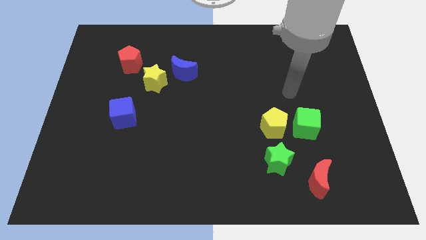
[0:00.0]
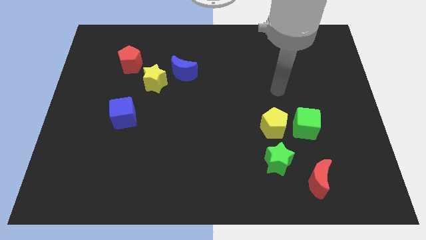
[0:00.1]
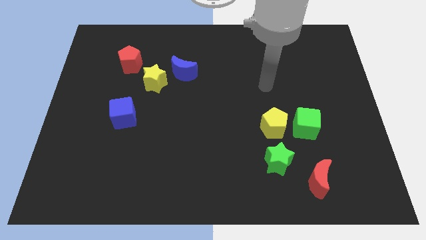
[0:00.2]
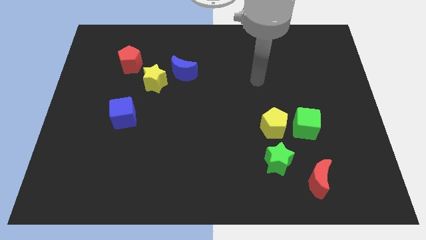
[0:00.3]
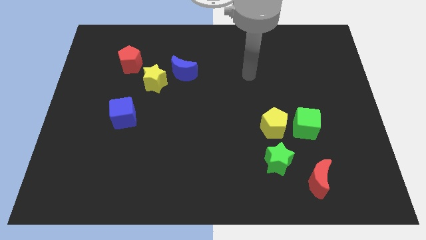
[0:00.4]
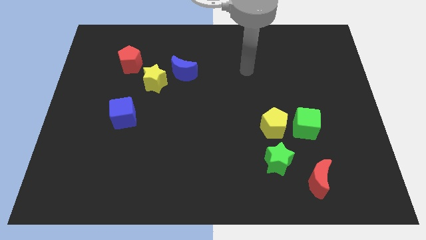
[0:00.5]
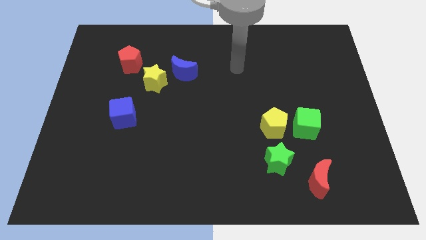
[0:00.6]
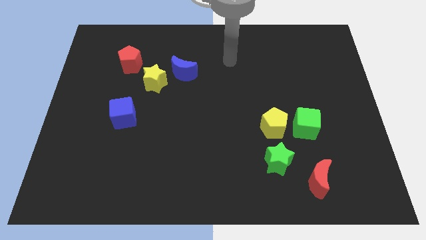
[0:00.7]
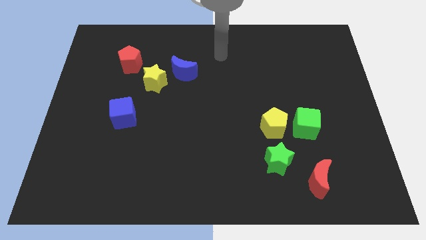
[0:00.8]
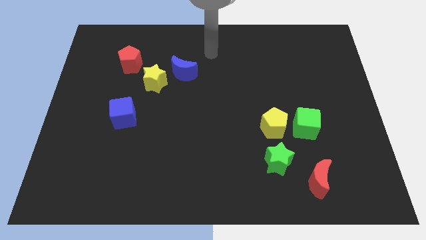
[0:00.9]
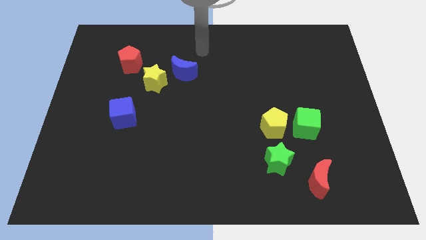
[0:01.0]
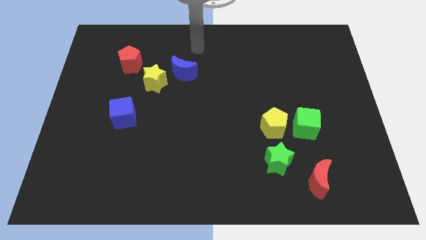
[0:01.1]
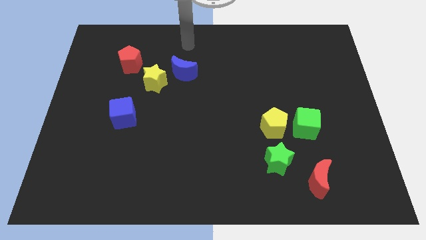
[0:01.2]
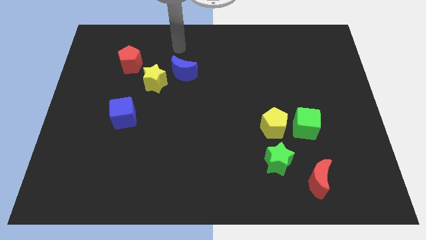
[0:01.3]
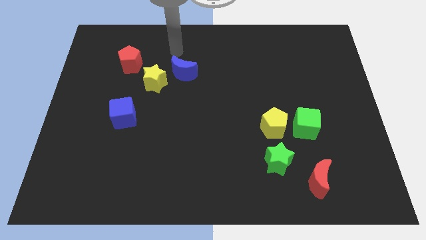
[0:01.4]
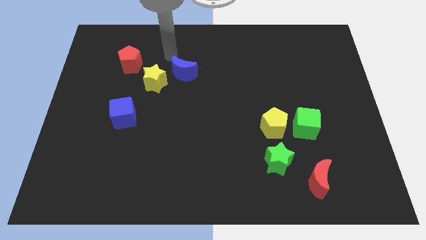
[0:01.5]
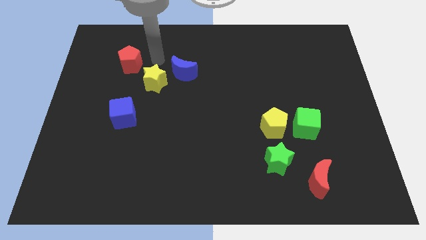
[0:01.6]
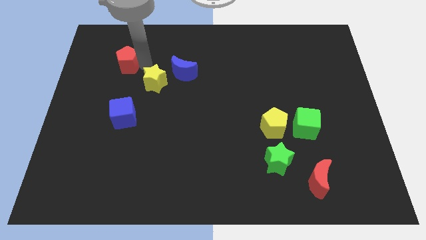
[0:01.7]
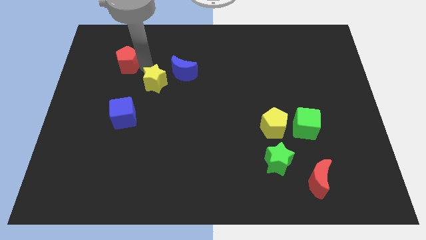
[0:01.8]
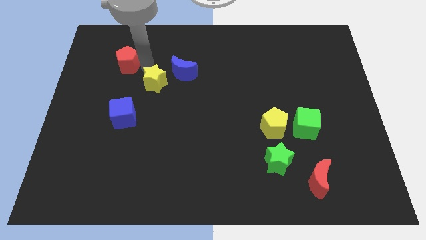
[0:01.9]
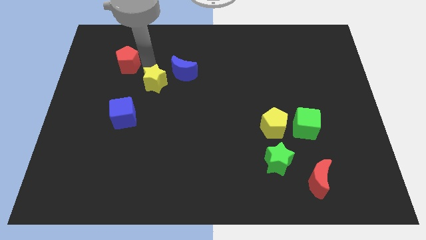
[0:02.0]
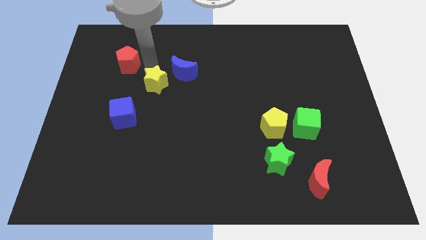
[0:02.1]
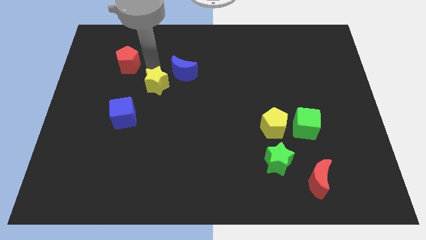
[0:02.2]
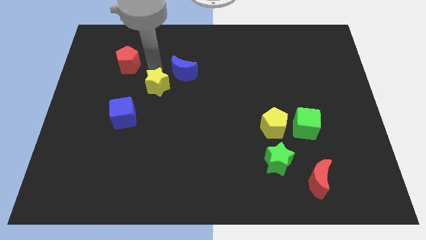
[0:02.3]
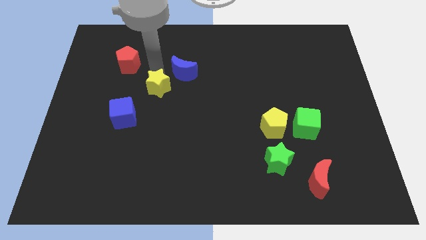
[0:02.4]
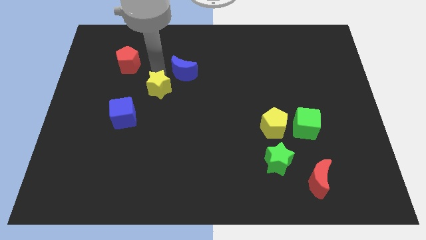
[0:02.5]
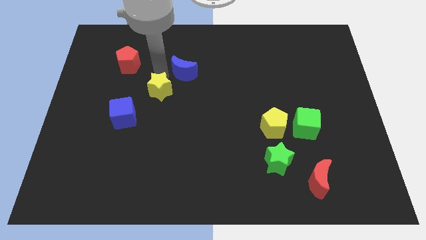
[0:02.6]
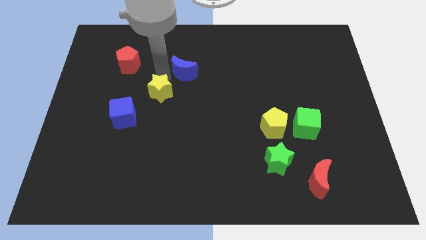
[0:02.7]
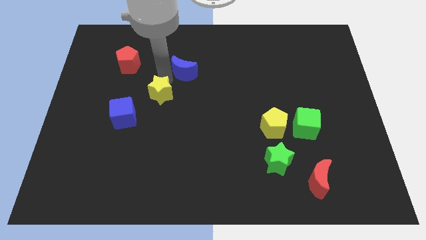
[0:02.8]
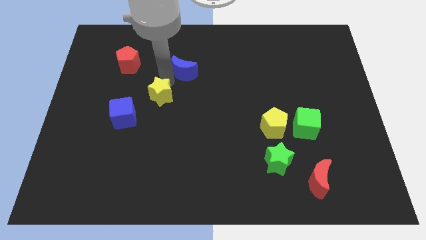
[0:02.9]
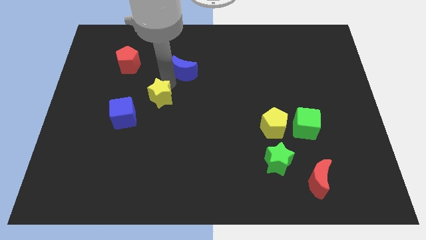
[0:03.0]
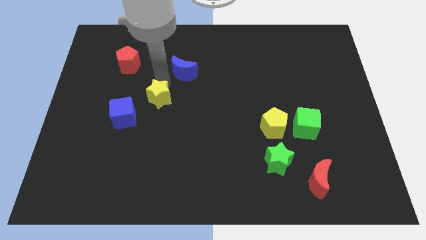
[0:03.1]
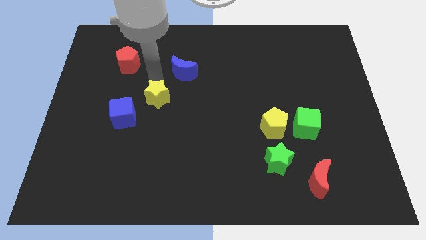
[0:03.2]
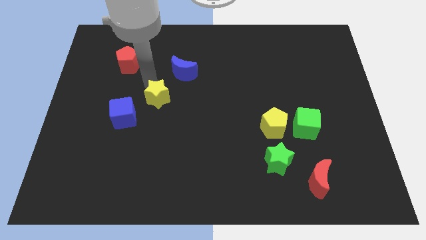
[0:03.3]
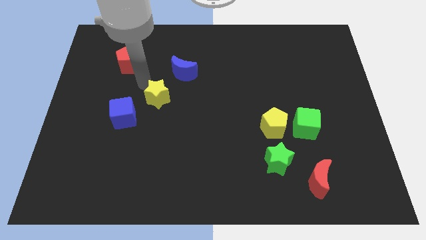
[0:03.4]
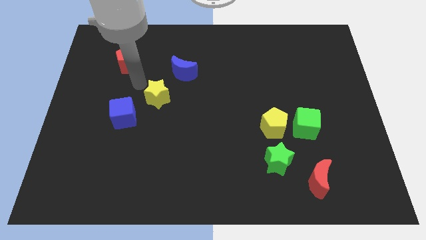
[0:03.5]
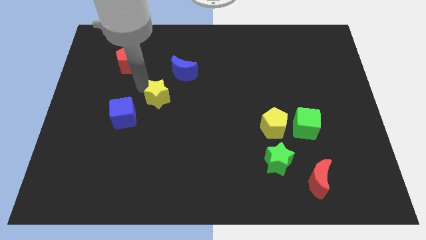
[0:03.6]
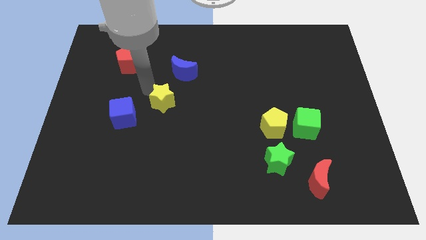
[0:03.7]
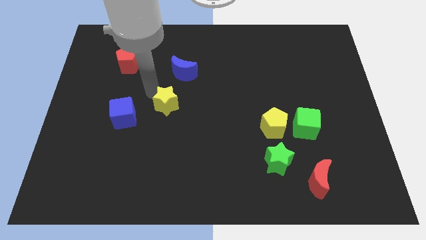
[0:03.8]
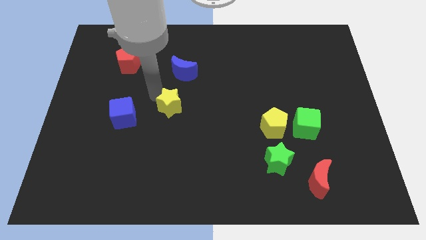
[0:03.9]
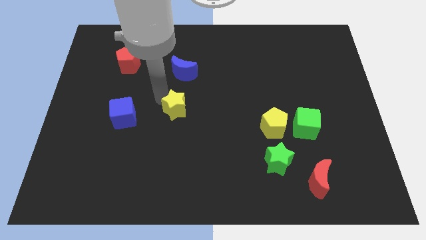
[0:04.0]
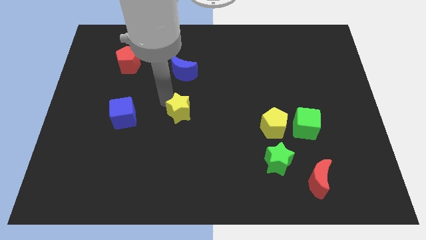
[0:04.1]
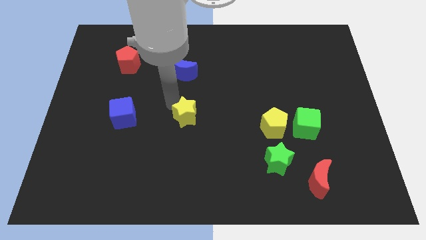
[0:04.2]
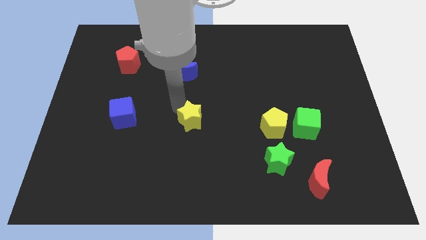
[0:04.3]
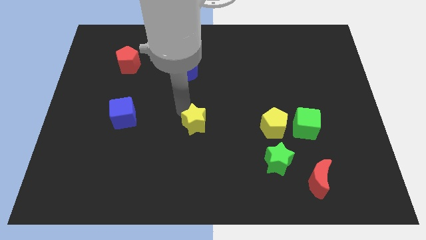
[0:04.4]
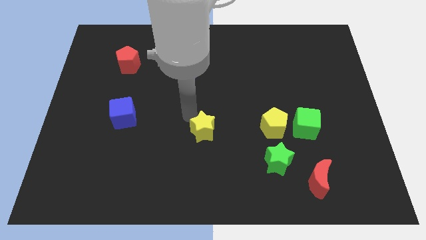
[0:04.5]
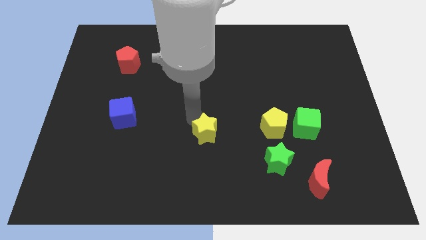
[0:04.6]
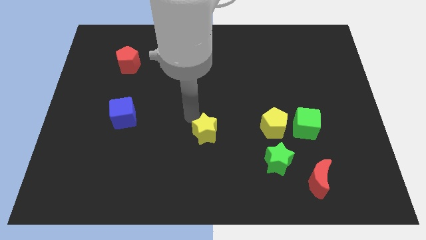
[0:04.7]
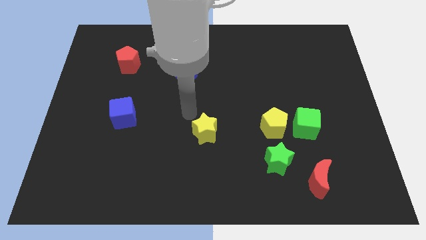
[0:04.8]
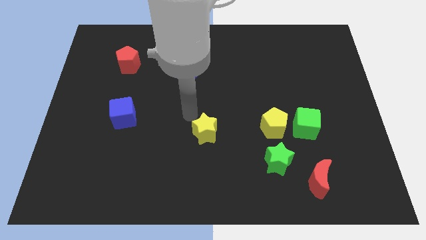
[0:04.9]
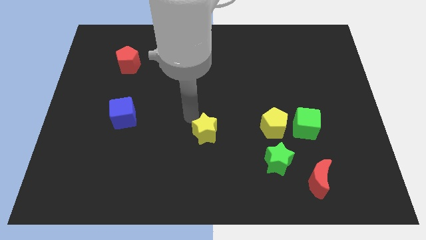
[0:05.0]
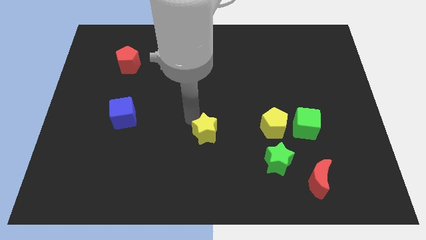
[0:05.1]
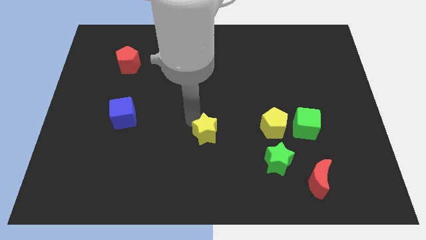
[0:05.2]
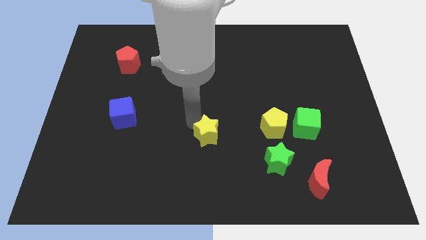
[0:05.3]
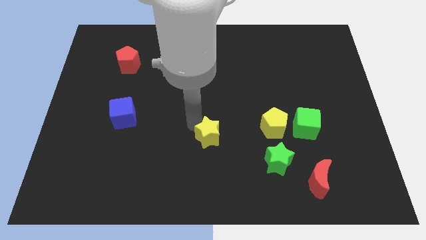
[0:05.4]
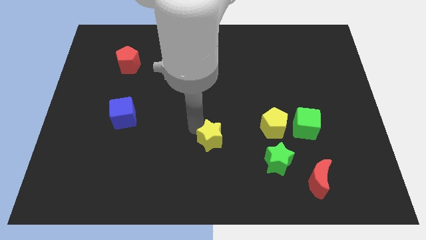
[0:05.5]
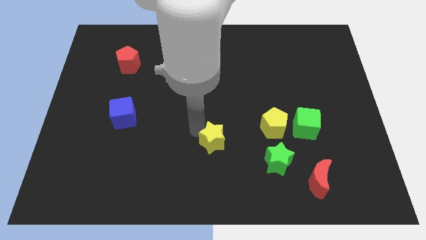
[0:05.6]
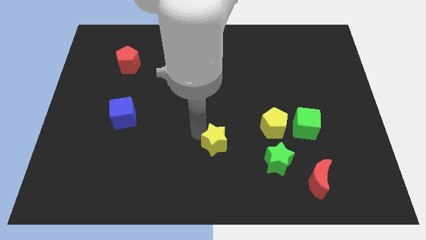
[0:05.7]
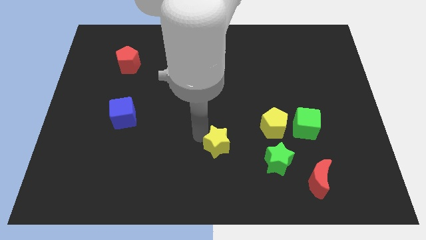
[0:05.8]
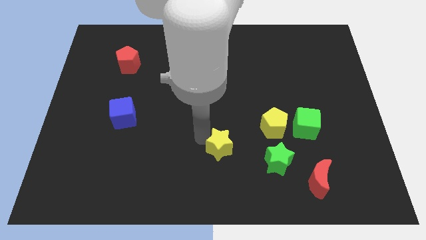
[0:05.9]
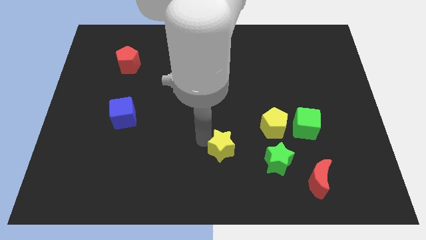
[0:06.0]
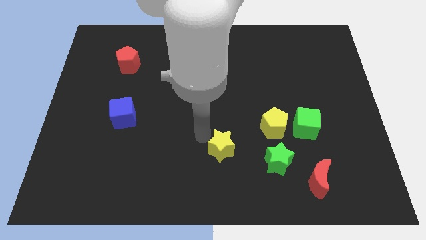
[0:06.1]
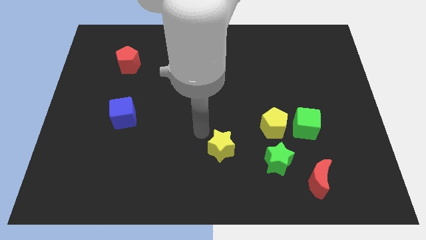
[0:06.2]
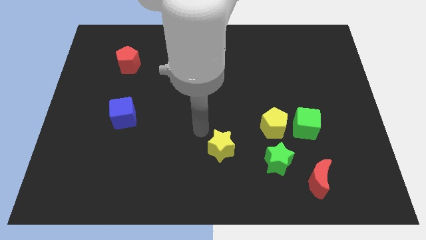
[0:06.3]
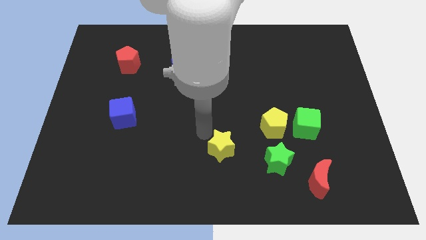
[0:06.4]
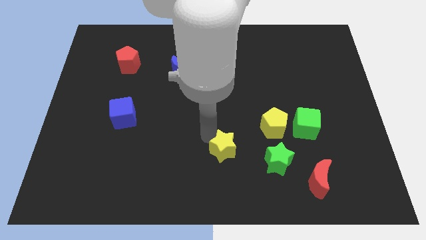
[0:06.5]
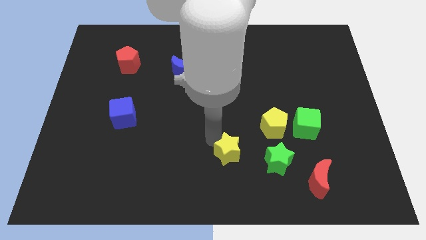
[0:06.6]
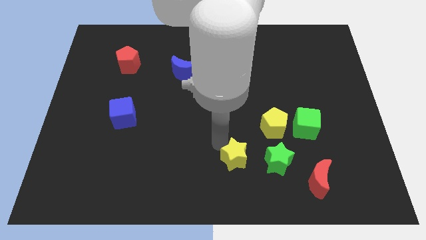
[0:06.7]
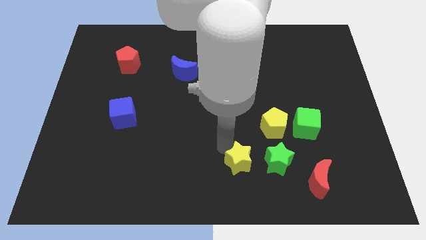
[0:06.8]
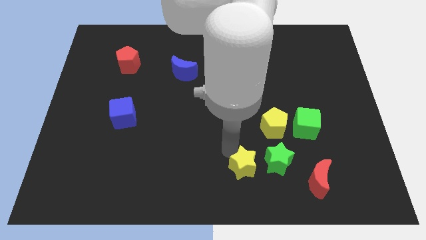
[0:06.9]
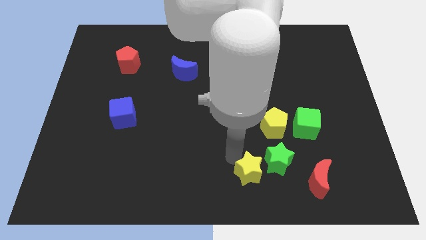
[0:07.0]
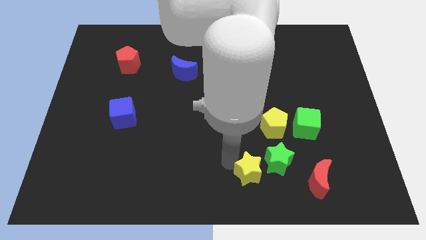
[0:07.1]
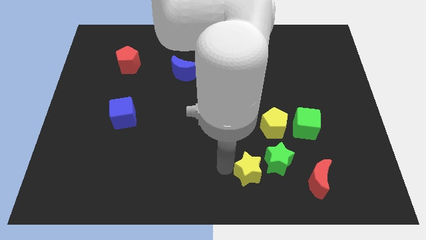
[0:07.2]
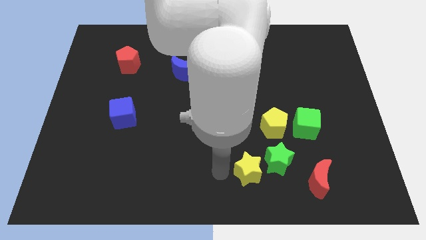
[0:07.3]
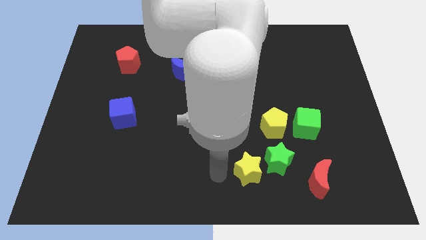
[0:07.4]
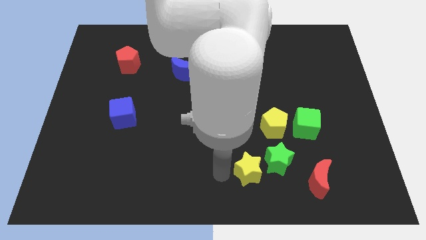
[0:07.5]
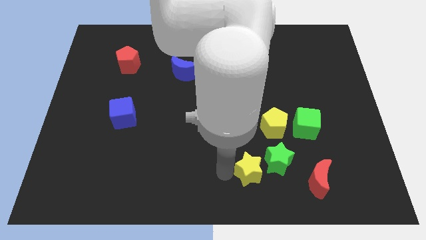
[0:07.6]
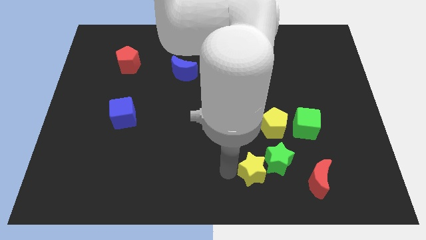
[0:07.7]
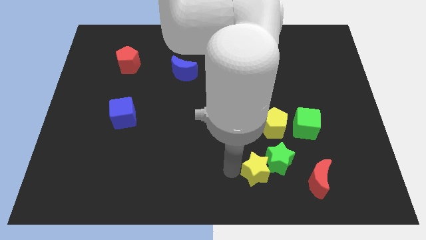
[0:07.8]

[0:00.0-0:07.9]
push the yellow star to the bottom side of the yellow pentagon
